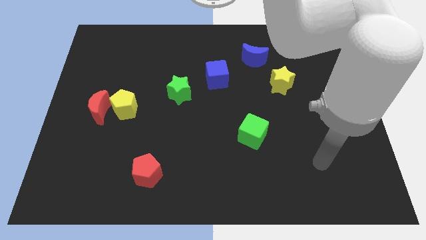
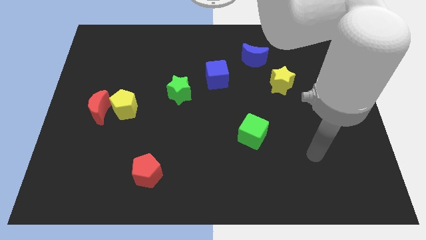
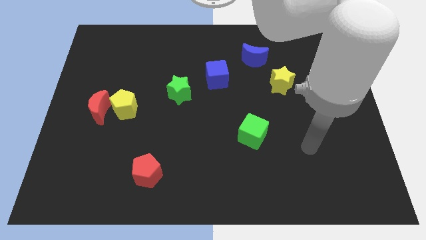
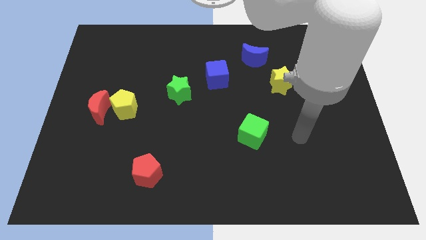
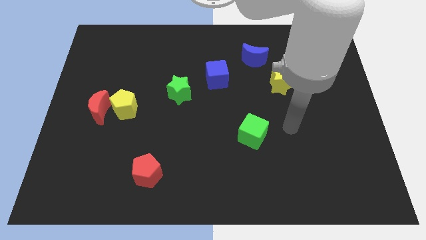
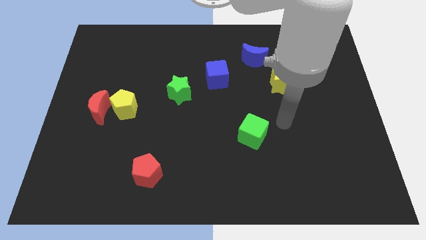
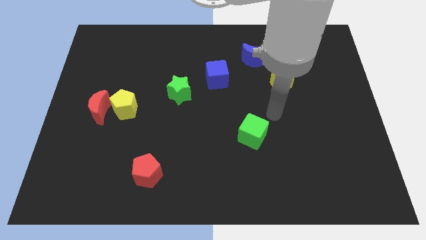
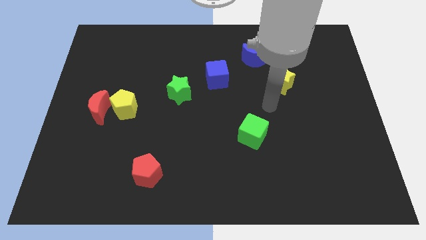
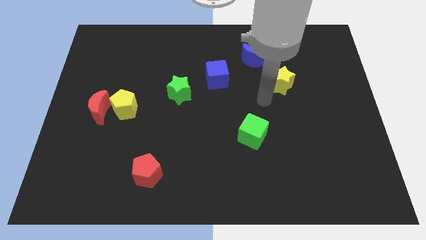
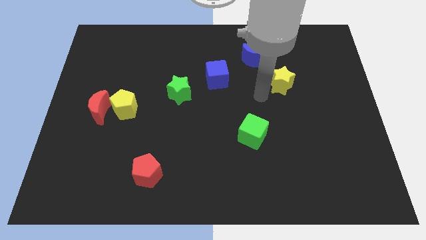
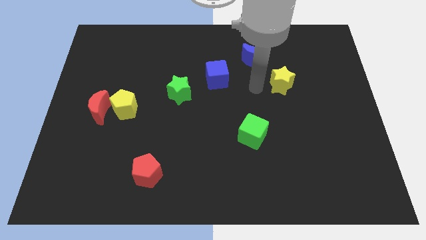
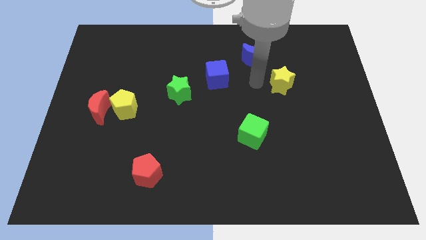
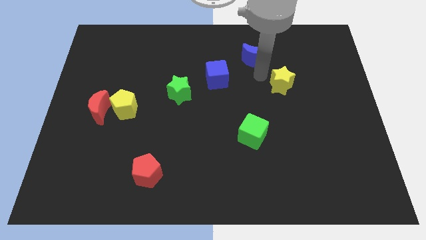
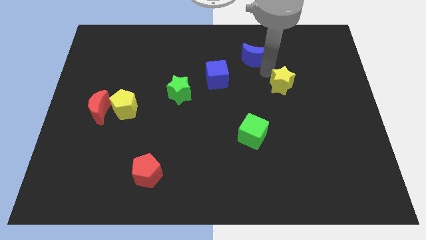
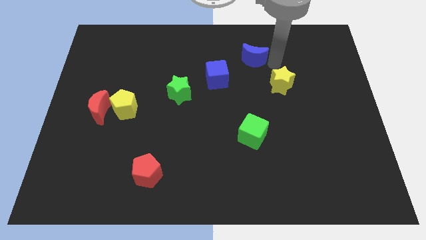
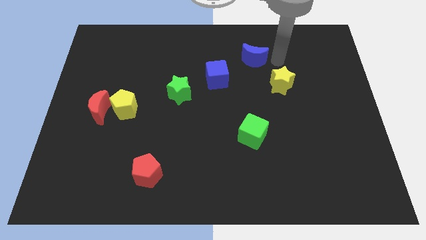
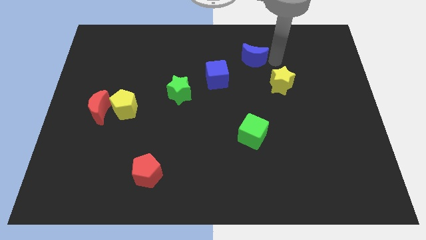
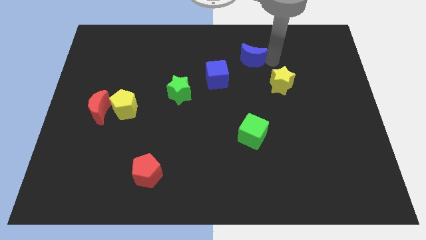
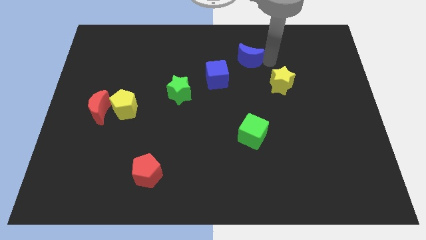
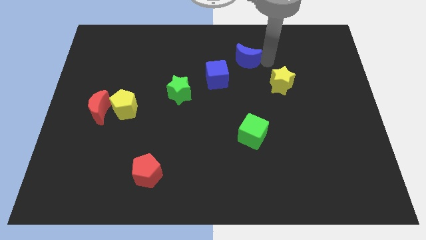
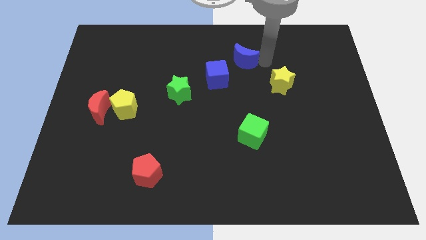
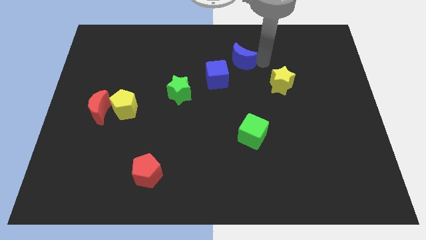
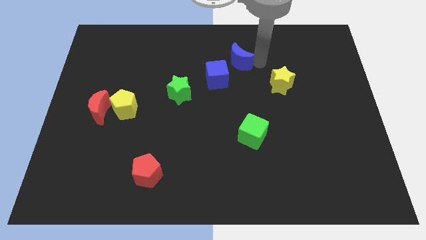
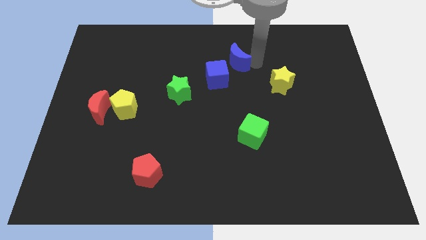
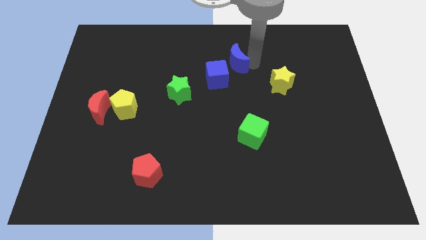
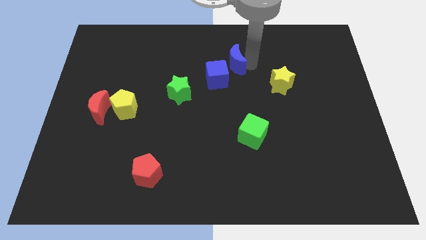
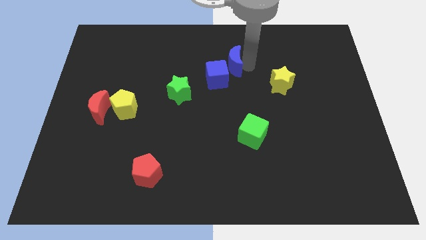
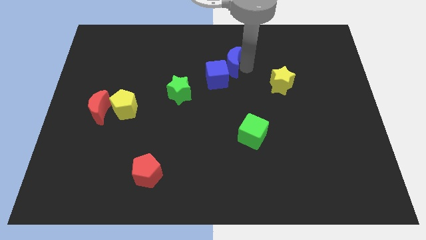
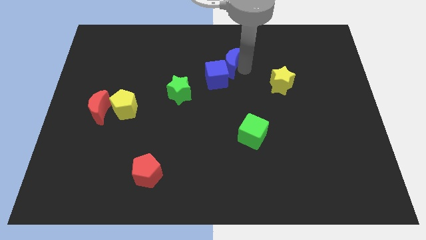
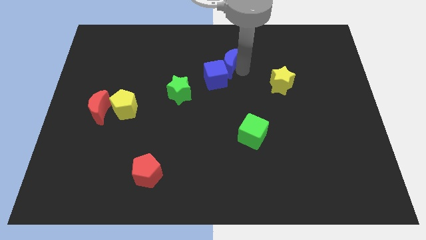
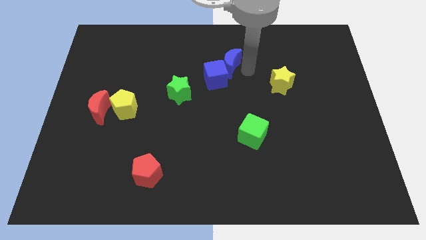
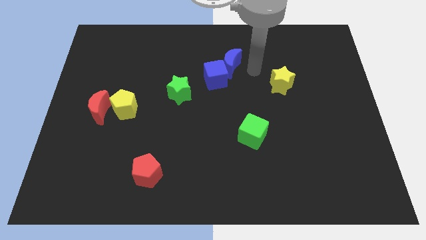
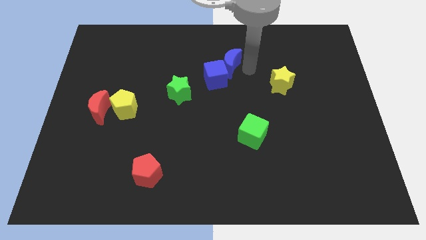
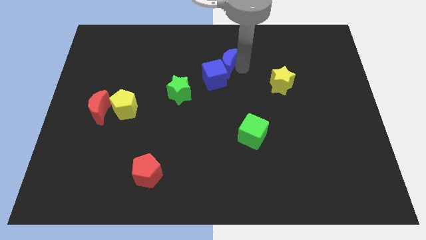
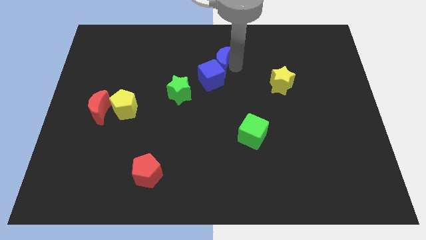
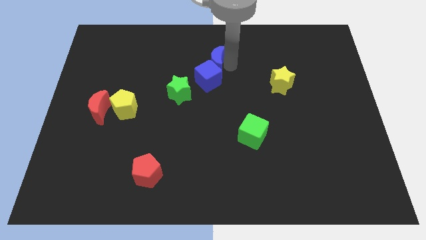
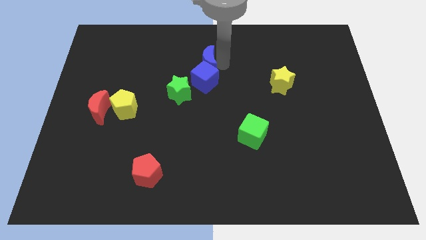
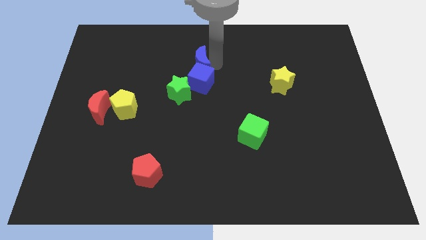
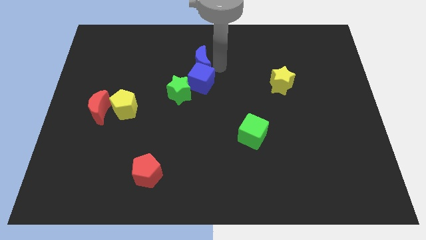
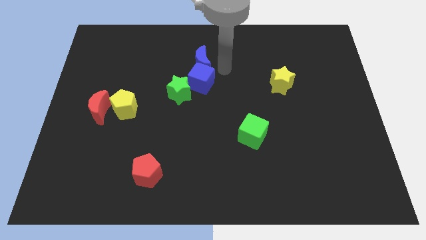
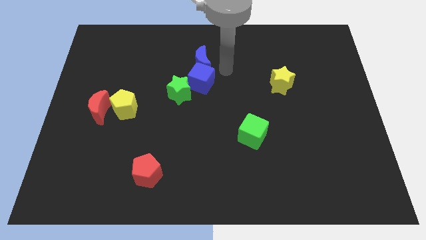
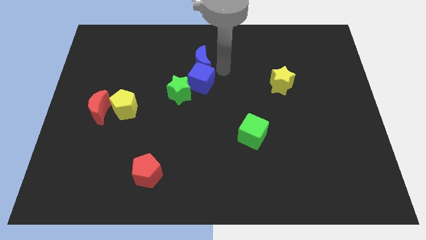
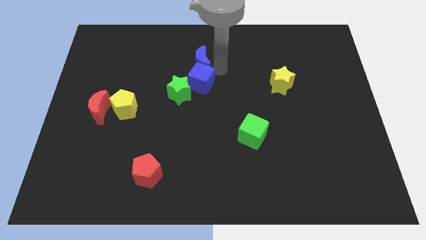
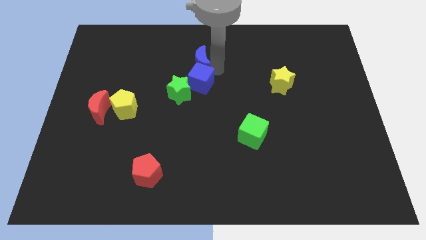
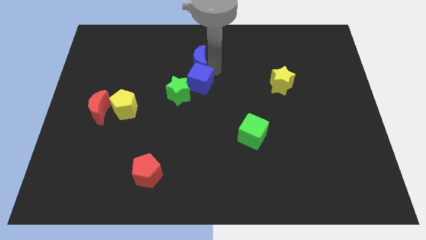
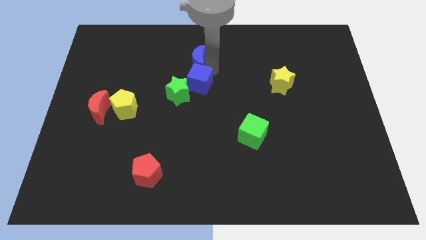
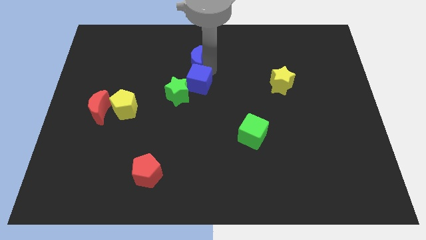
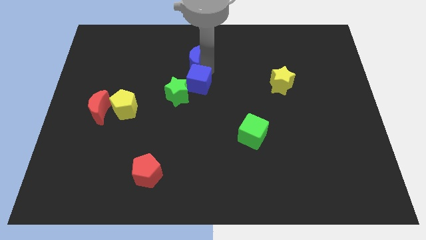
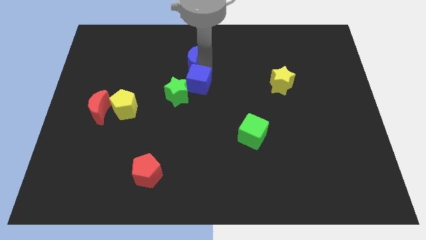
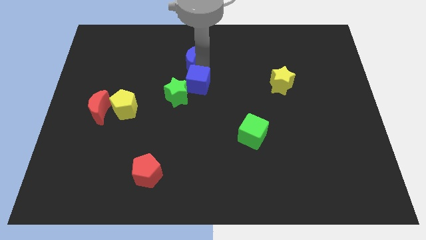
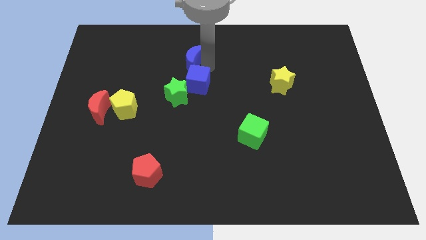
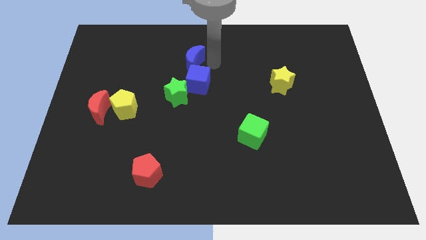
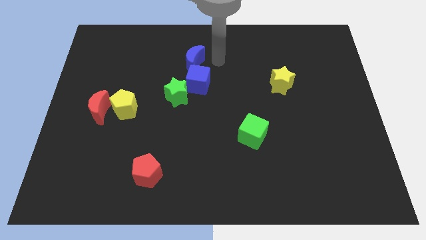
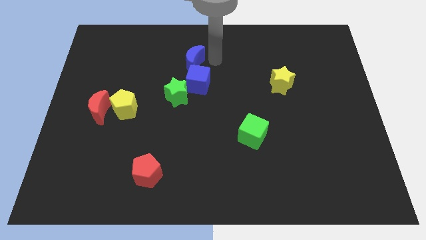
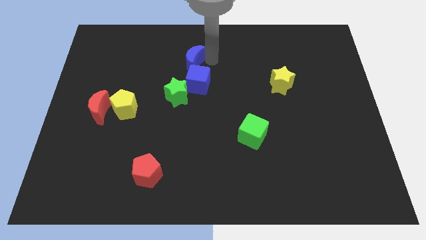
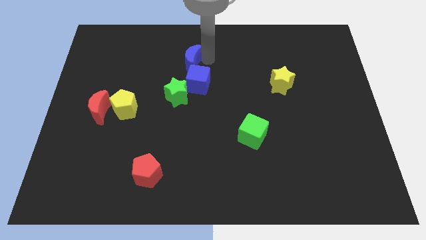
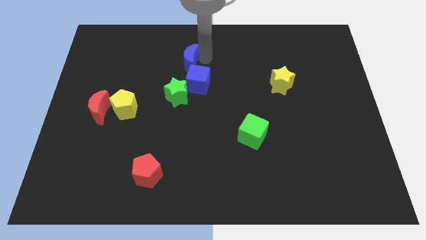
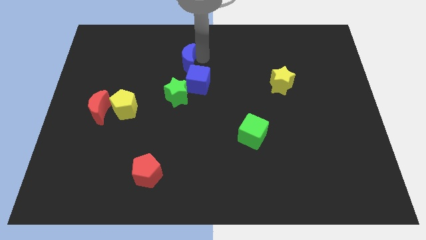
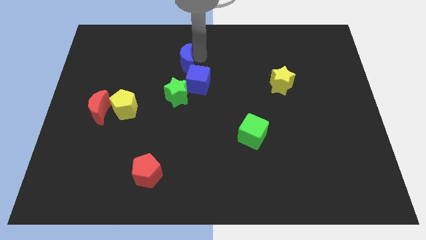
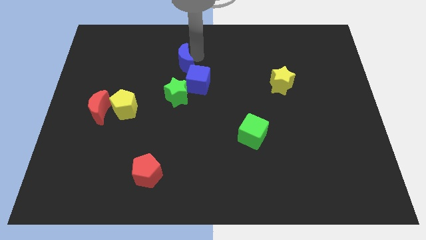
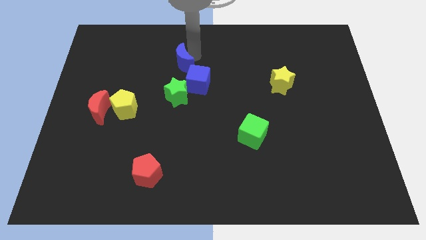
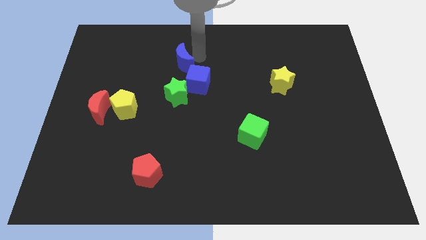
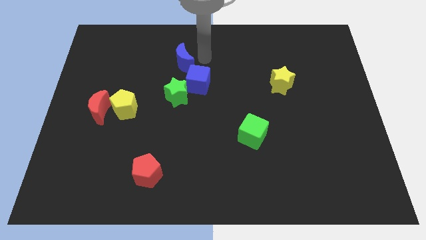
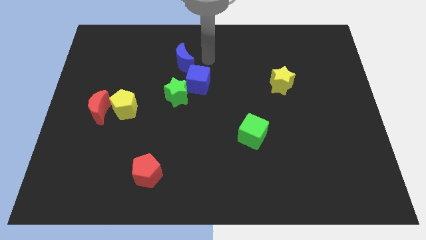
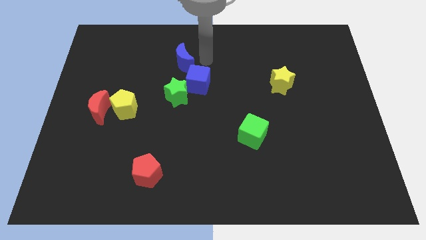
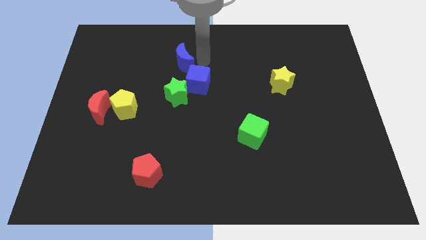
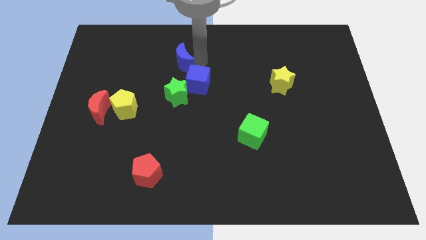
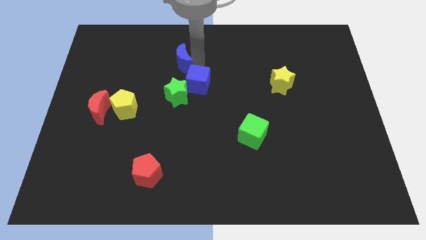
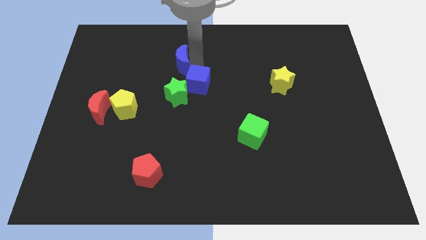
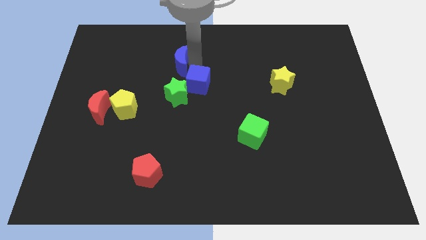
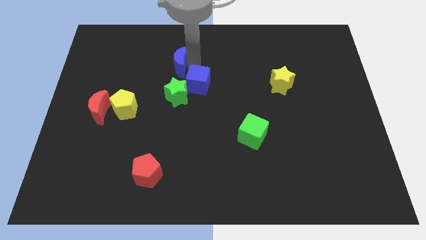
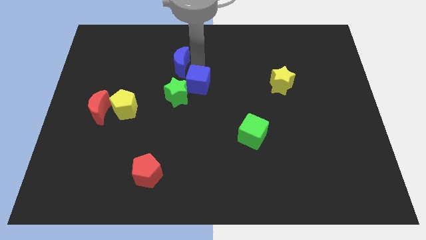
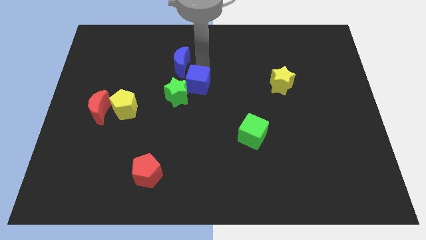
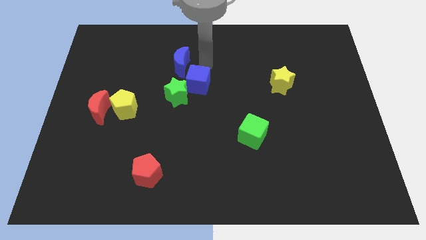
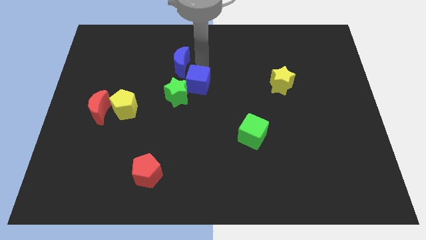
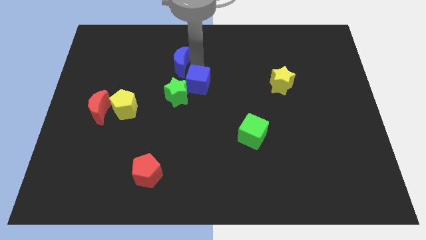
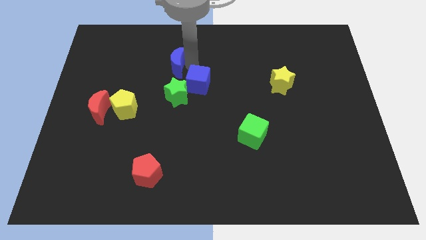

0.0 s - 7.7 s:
push the blue moon to the left
